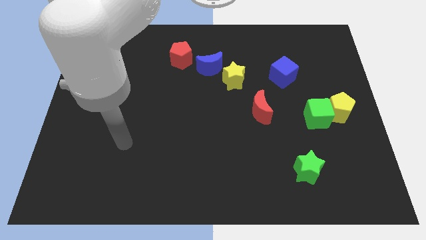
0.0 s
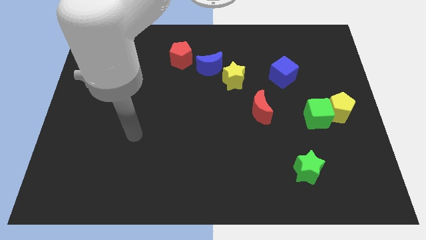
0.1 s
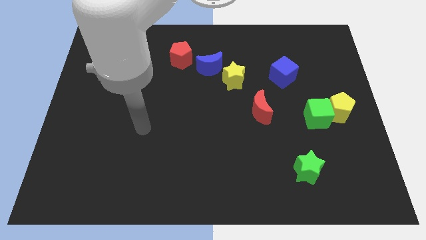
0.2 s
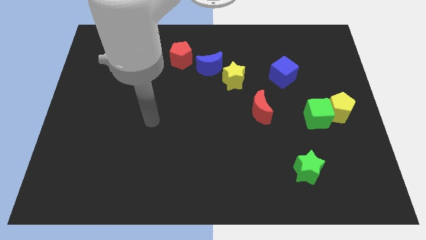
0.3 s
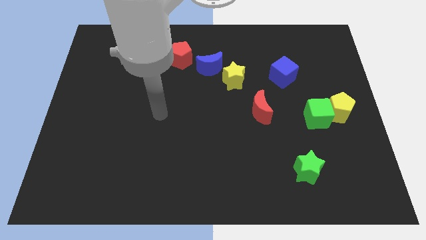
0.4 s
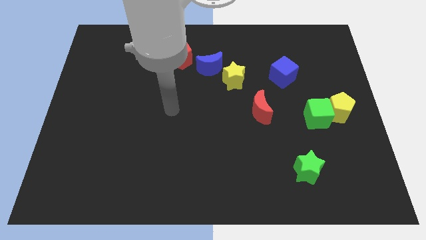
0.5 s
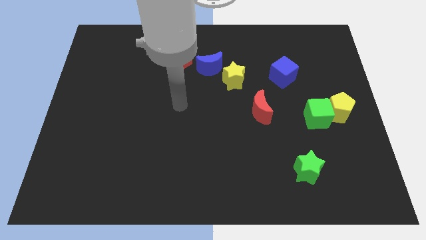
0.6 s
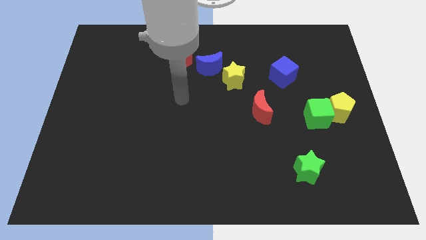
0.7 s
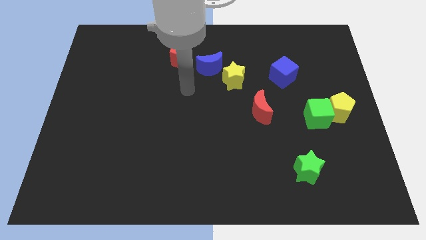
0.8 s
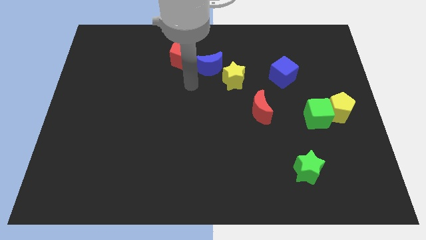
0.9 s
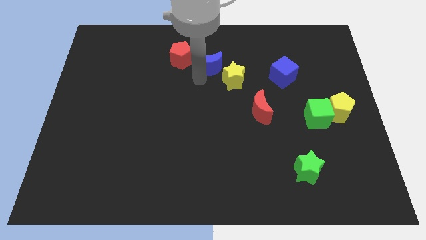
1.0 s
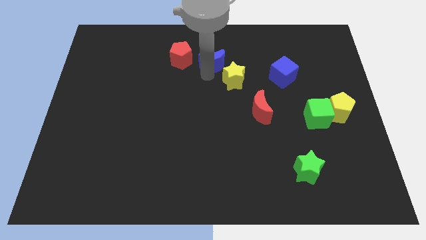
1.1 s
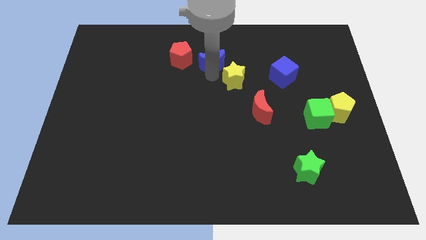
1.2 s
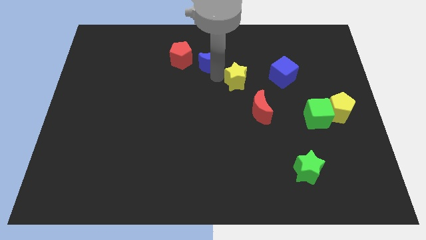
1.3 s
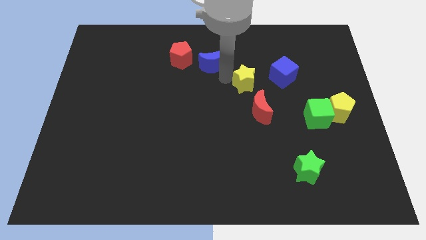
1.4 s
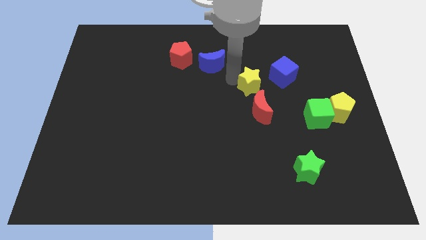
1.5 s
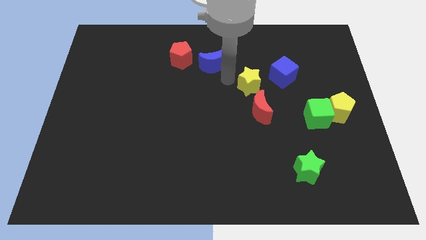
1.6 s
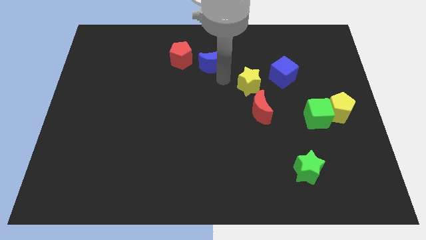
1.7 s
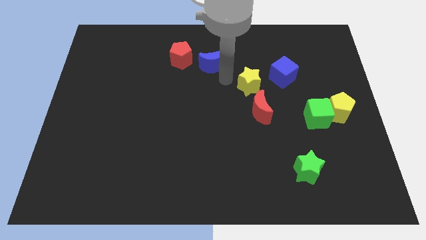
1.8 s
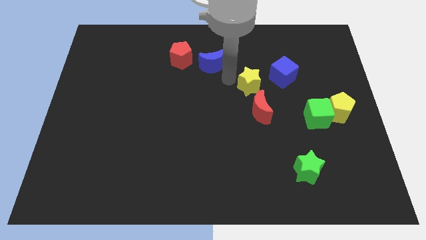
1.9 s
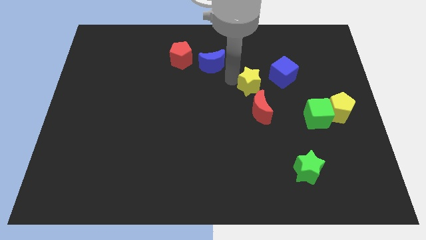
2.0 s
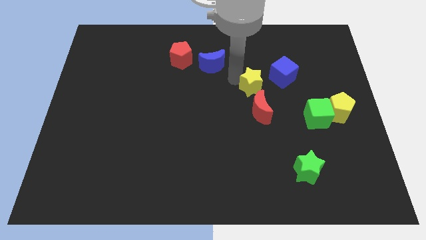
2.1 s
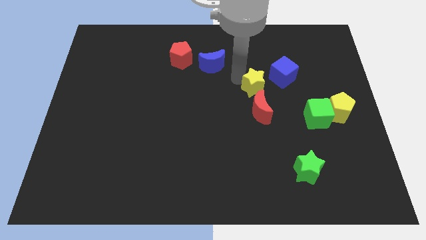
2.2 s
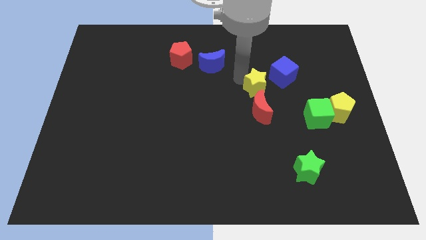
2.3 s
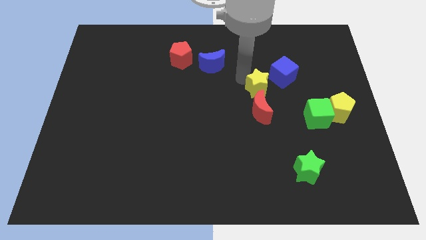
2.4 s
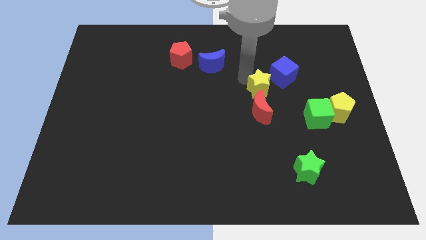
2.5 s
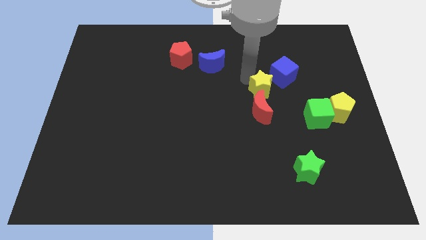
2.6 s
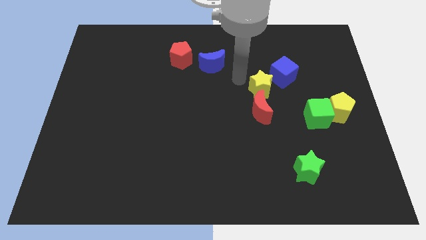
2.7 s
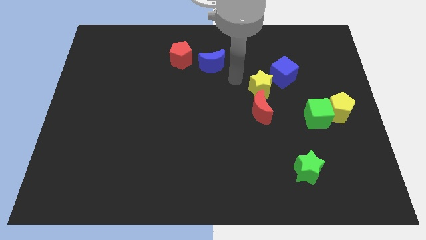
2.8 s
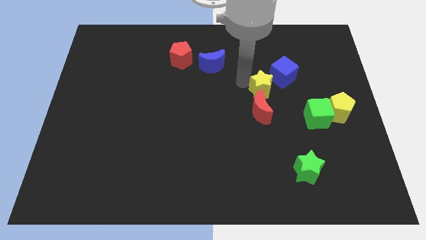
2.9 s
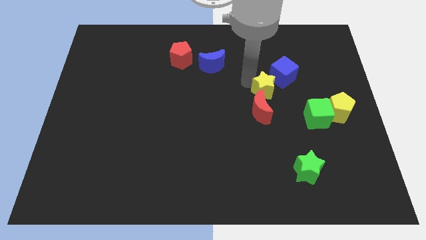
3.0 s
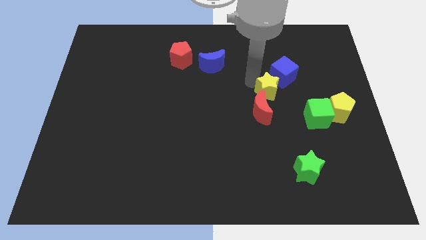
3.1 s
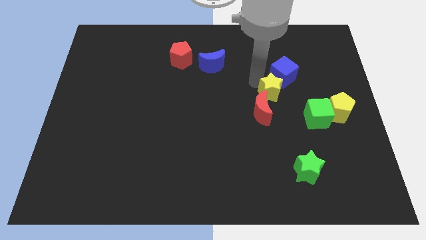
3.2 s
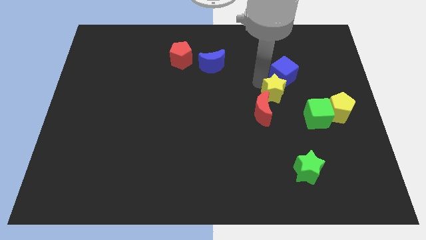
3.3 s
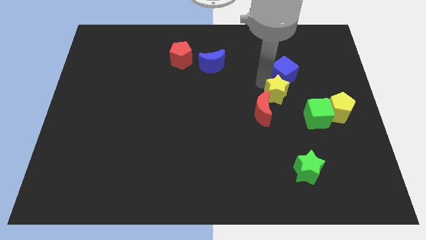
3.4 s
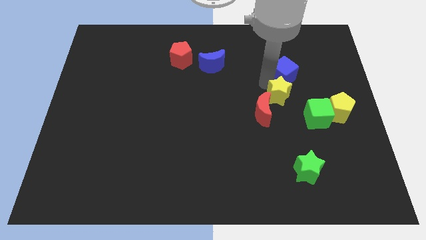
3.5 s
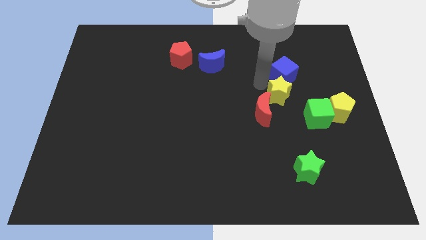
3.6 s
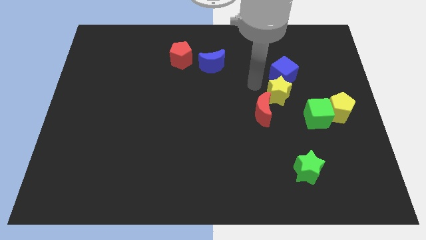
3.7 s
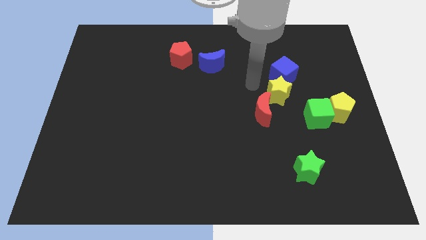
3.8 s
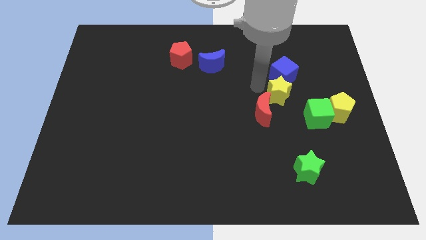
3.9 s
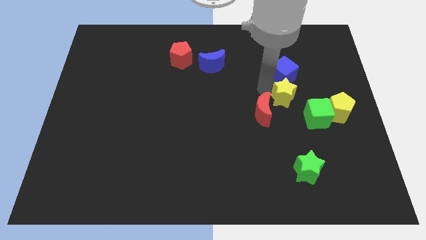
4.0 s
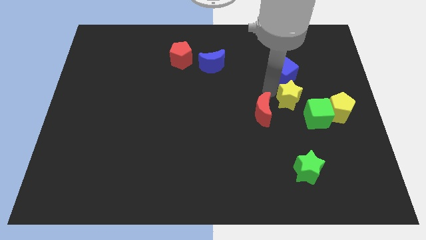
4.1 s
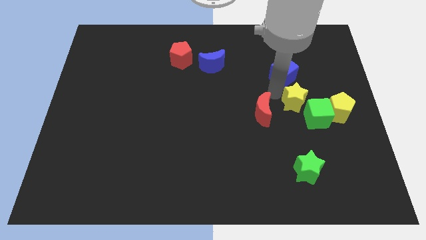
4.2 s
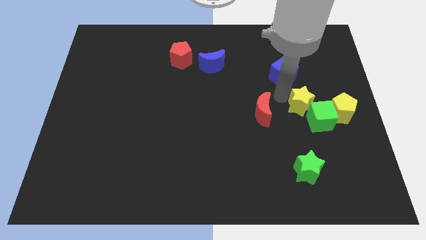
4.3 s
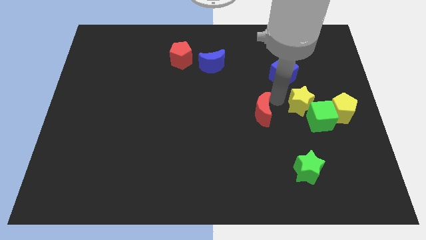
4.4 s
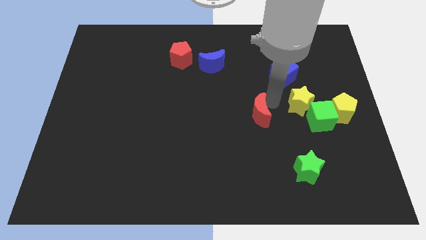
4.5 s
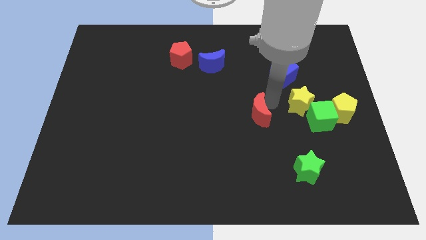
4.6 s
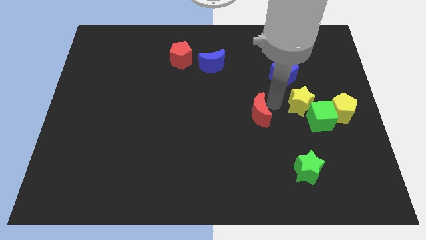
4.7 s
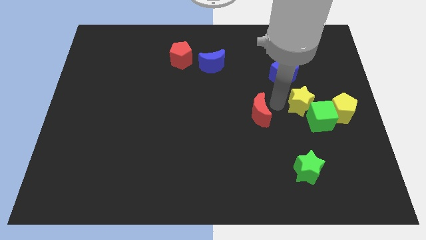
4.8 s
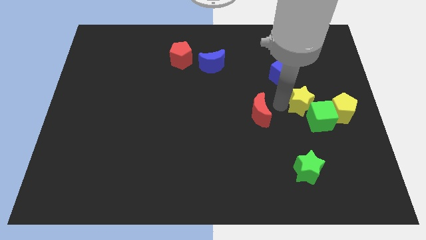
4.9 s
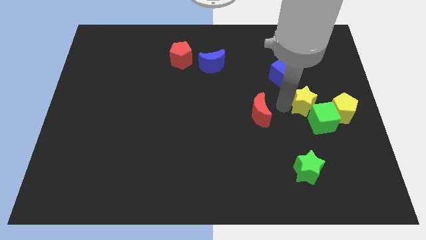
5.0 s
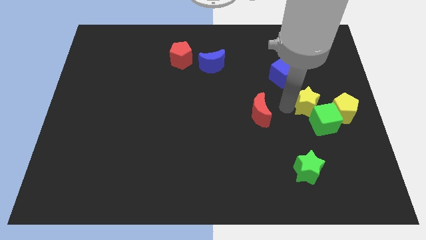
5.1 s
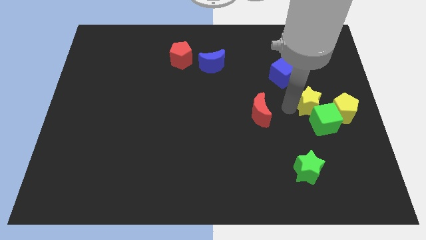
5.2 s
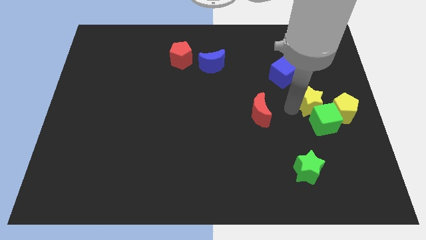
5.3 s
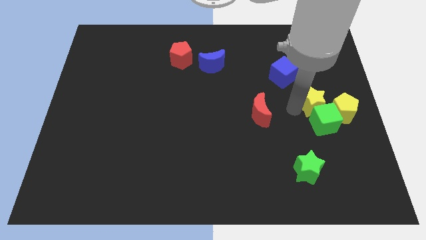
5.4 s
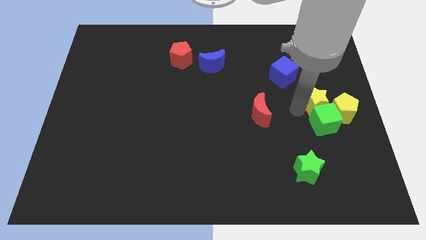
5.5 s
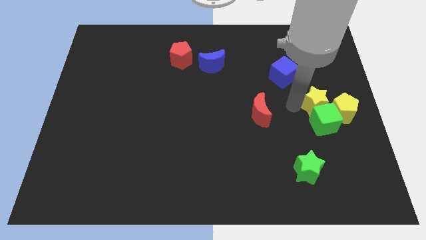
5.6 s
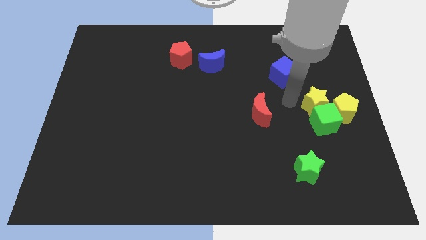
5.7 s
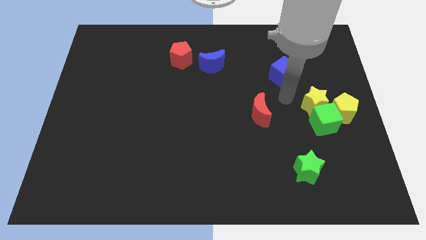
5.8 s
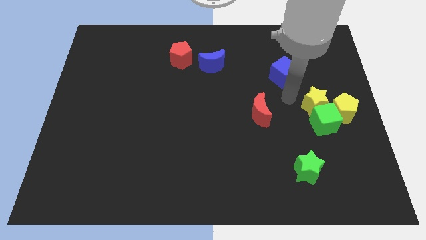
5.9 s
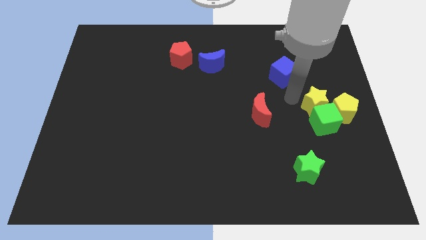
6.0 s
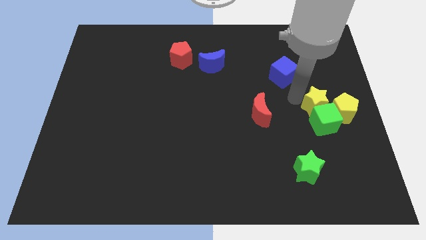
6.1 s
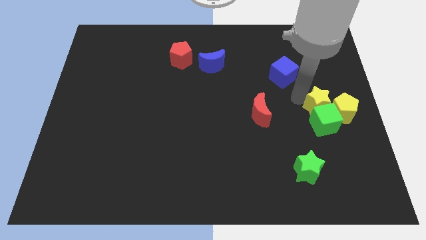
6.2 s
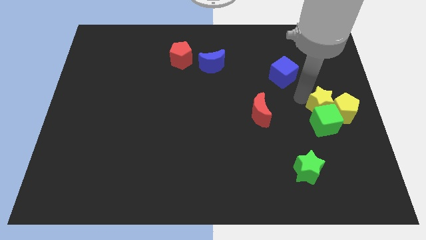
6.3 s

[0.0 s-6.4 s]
move the yellow star next to the yellow pentagon
